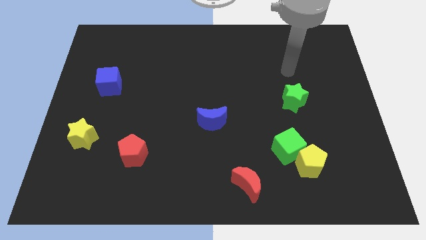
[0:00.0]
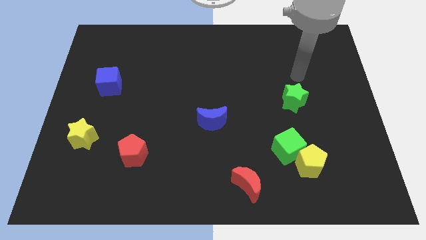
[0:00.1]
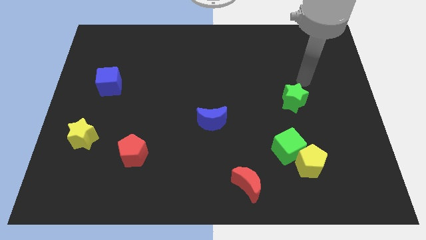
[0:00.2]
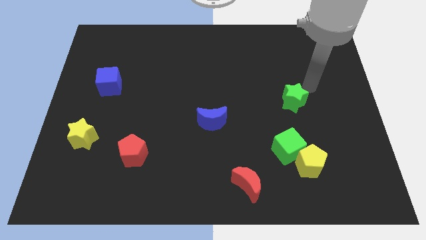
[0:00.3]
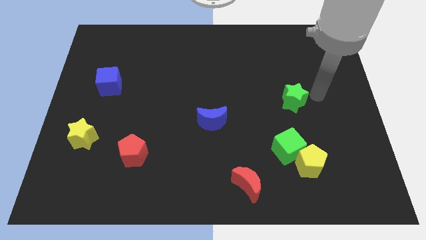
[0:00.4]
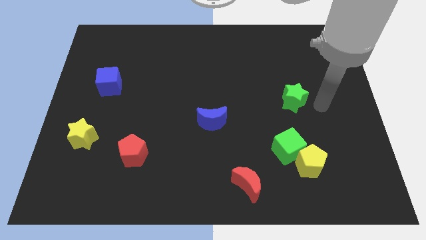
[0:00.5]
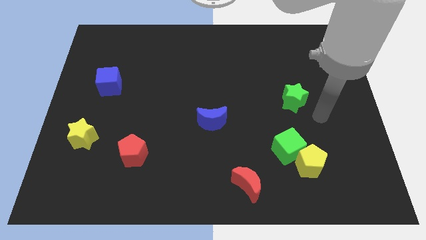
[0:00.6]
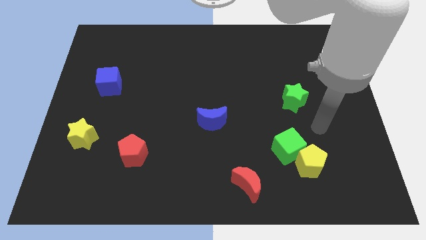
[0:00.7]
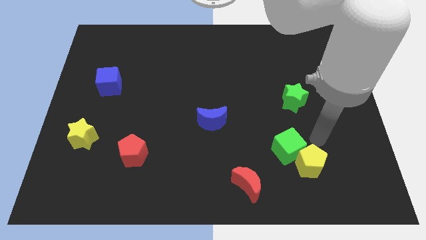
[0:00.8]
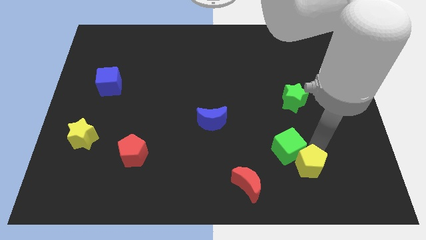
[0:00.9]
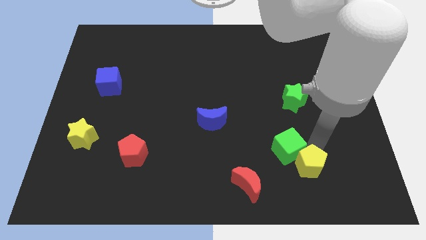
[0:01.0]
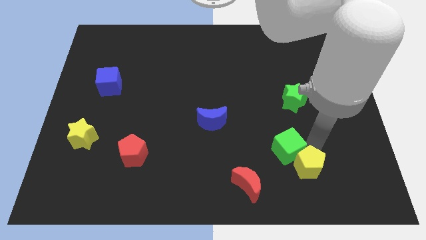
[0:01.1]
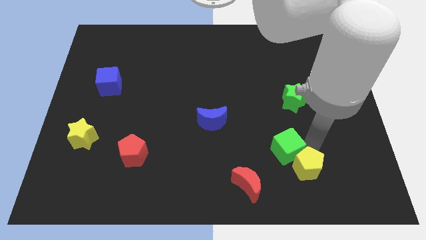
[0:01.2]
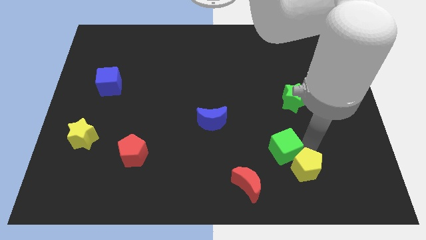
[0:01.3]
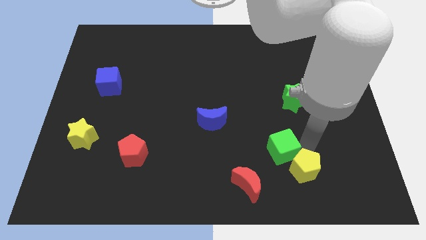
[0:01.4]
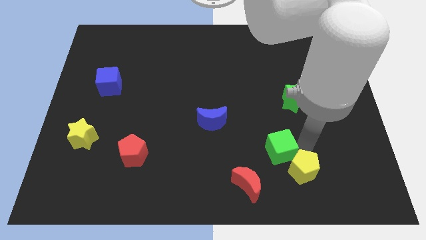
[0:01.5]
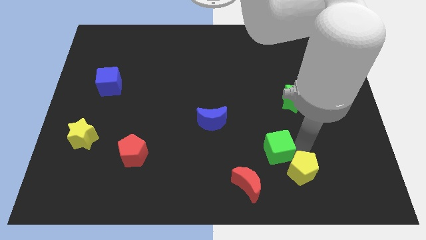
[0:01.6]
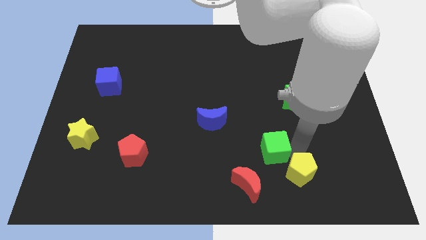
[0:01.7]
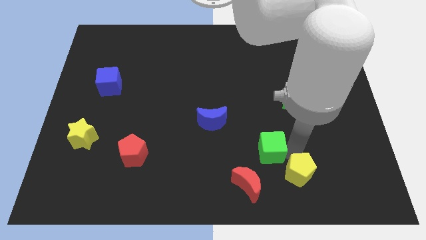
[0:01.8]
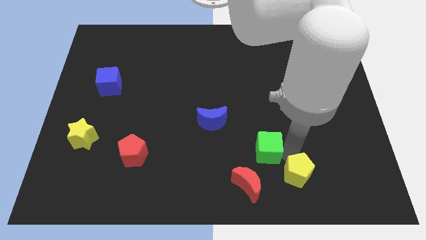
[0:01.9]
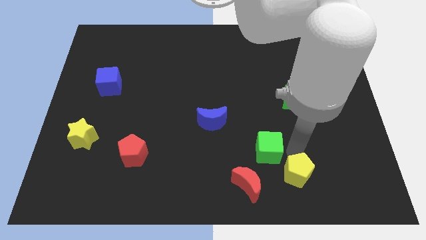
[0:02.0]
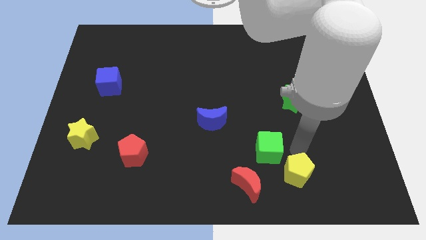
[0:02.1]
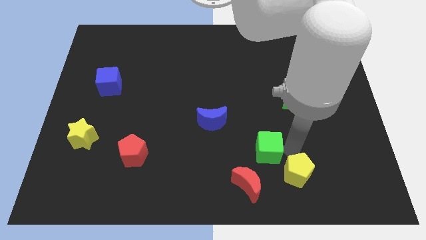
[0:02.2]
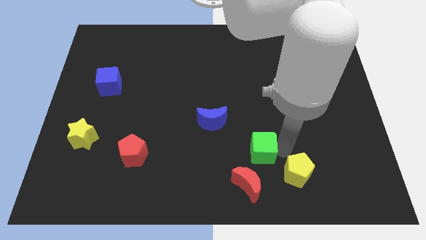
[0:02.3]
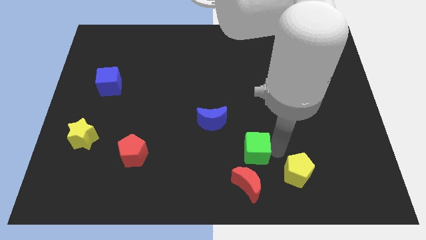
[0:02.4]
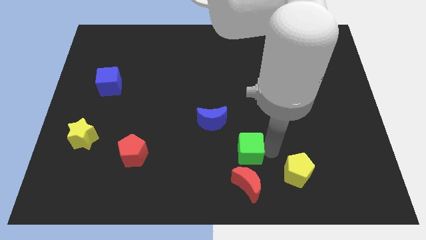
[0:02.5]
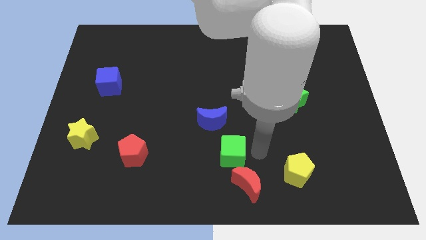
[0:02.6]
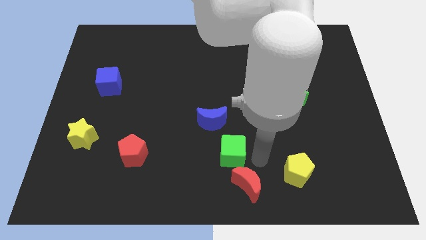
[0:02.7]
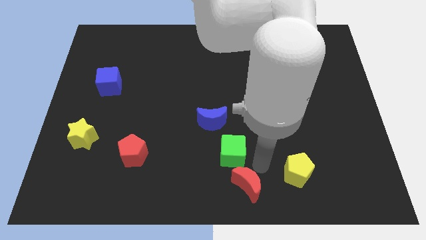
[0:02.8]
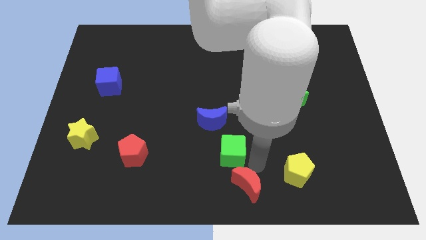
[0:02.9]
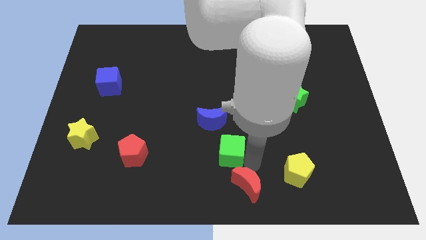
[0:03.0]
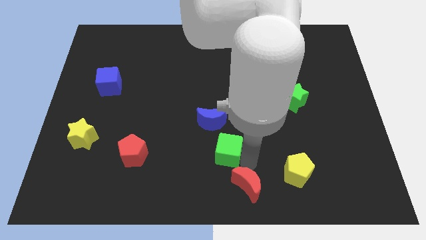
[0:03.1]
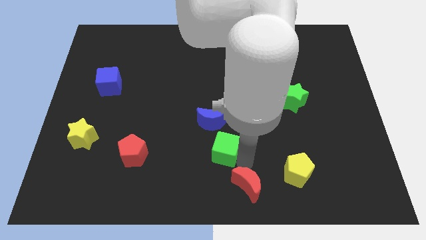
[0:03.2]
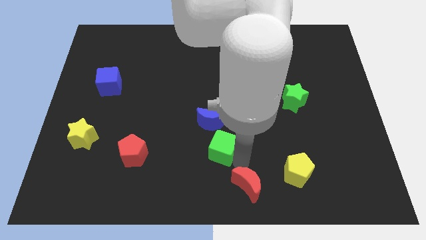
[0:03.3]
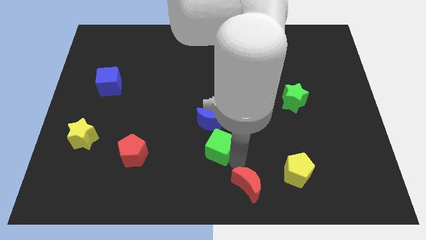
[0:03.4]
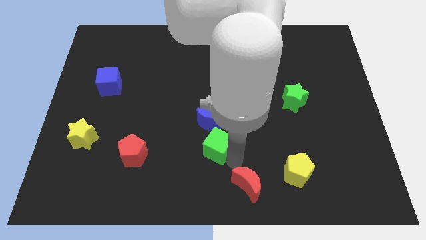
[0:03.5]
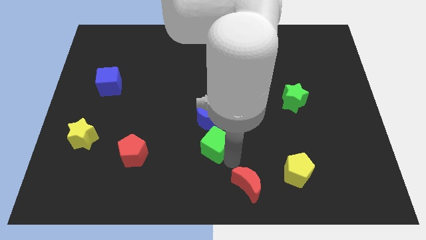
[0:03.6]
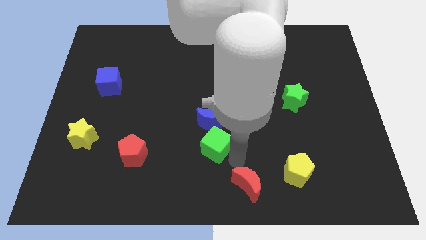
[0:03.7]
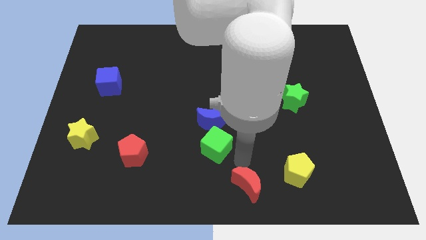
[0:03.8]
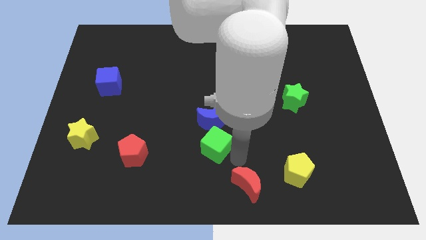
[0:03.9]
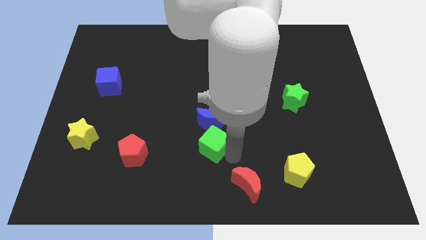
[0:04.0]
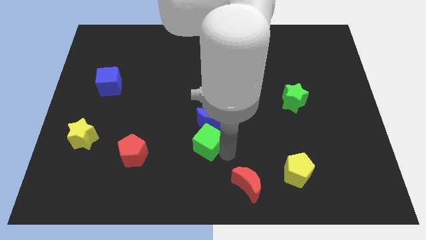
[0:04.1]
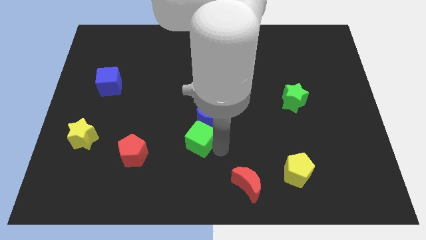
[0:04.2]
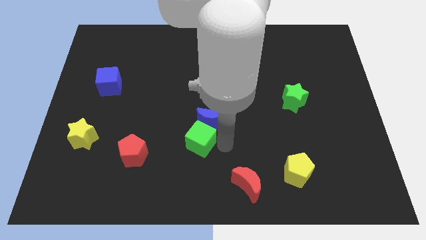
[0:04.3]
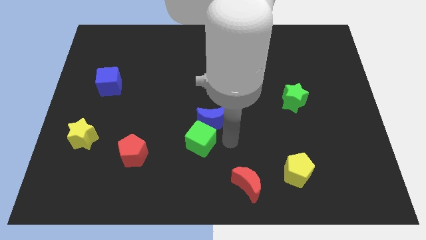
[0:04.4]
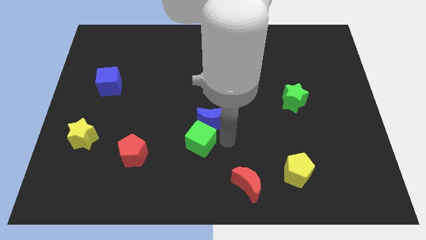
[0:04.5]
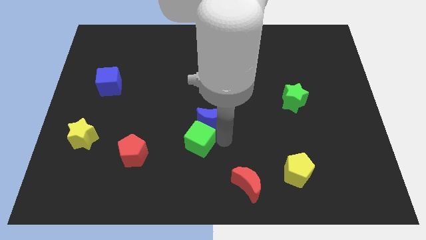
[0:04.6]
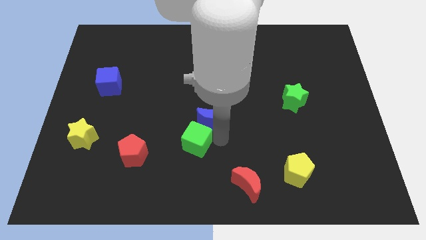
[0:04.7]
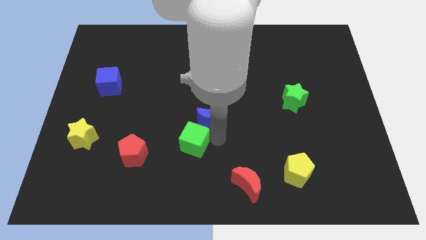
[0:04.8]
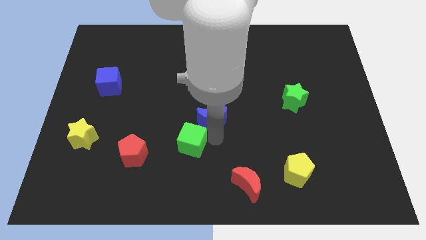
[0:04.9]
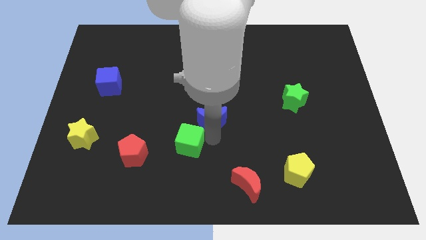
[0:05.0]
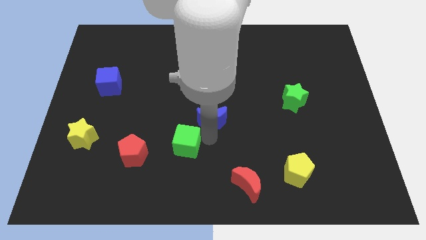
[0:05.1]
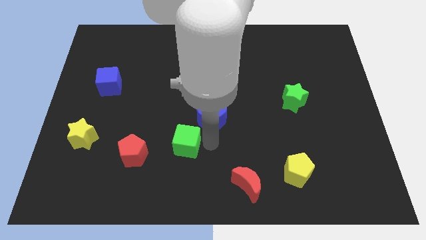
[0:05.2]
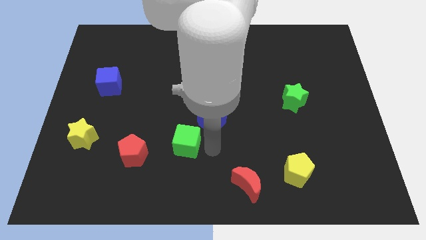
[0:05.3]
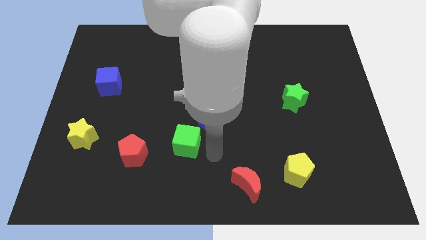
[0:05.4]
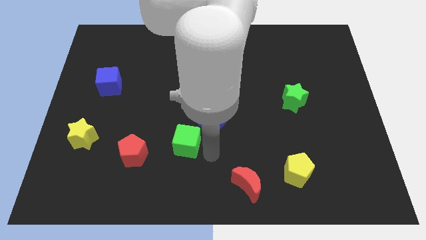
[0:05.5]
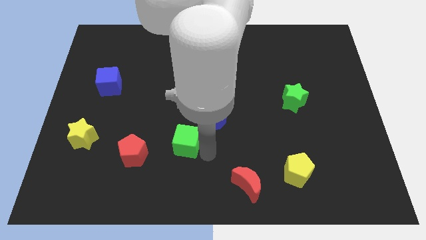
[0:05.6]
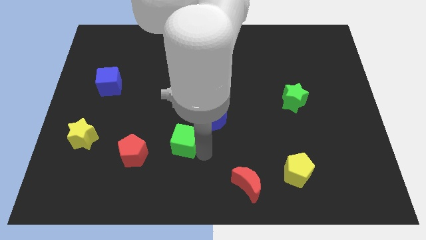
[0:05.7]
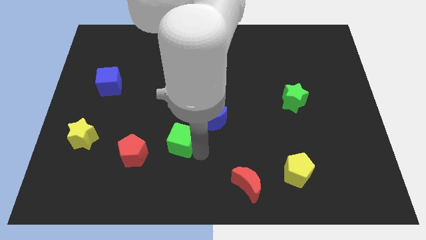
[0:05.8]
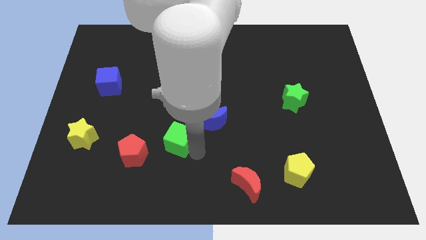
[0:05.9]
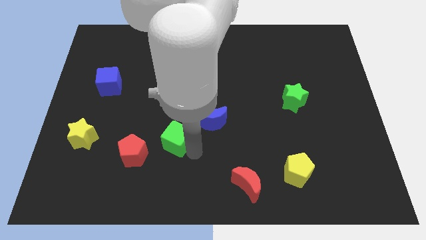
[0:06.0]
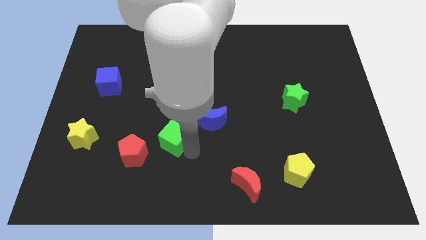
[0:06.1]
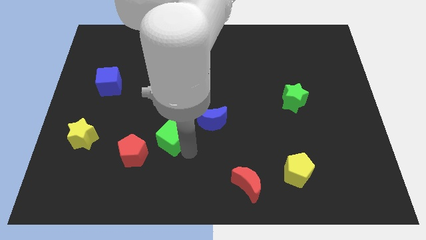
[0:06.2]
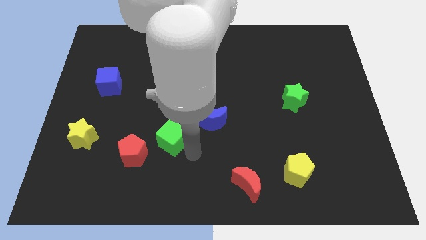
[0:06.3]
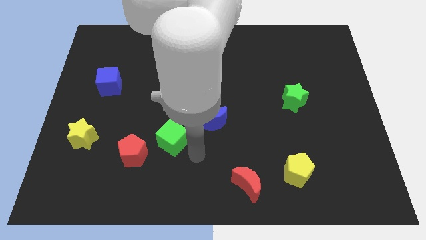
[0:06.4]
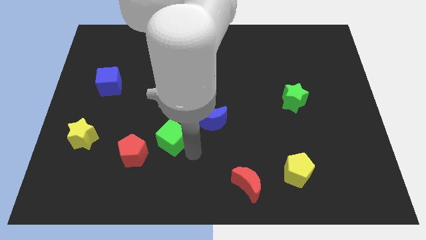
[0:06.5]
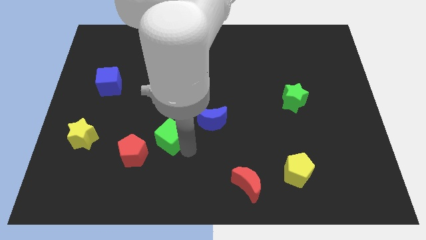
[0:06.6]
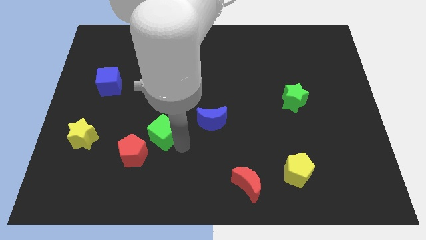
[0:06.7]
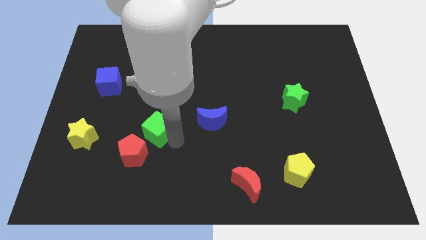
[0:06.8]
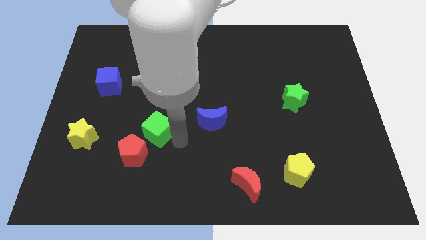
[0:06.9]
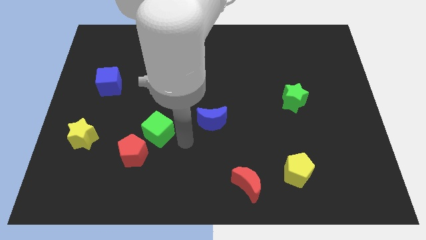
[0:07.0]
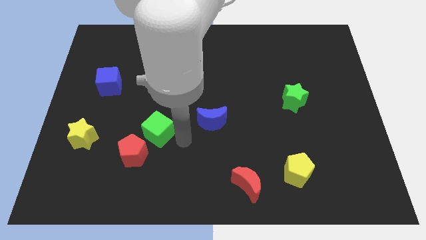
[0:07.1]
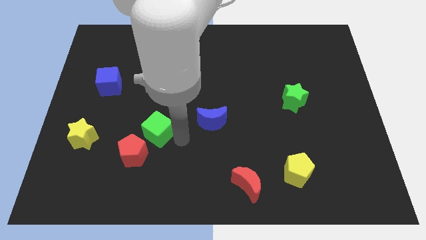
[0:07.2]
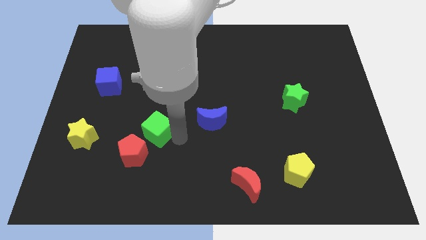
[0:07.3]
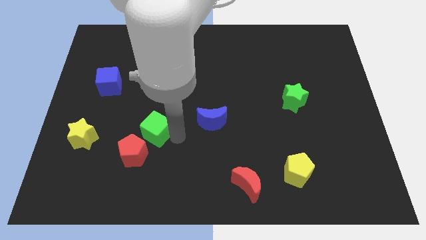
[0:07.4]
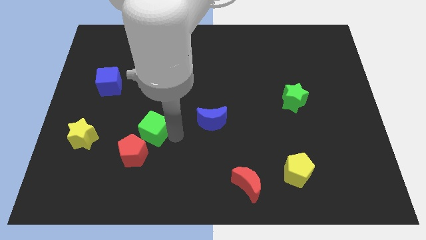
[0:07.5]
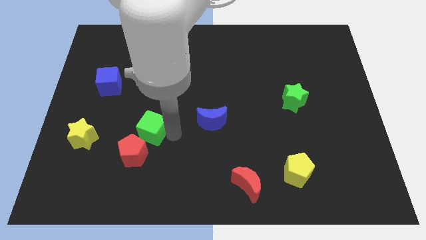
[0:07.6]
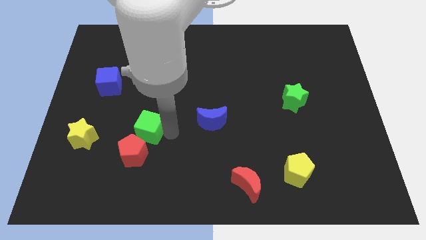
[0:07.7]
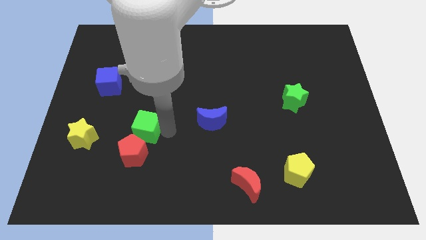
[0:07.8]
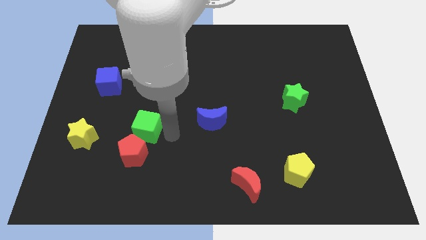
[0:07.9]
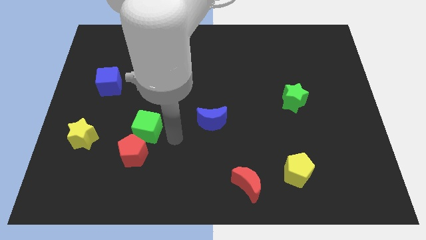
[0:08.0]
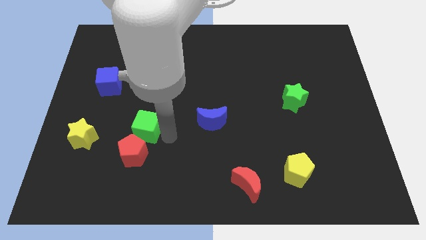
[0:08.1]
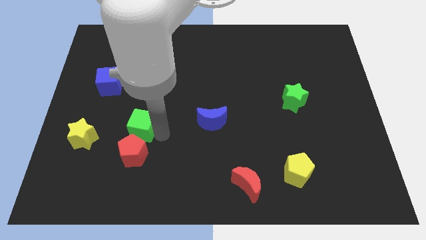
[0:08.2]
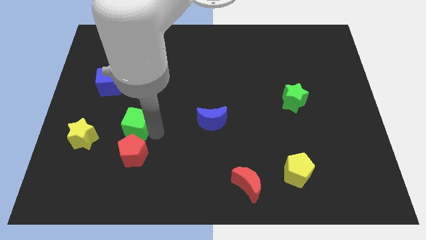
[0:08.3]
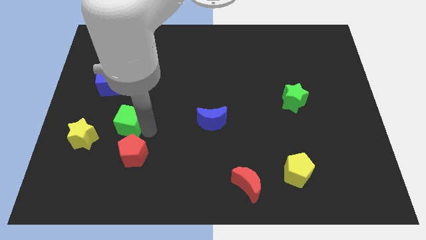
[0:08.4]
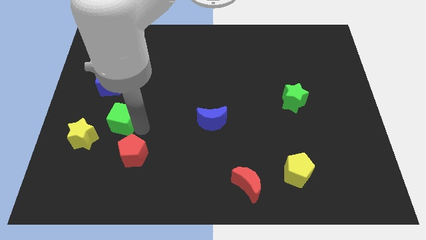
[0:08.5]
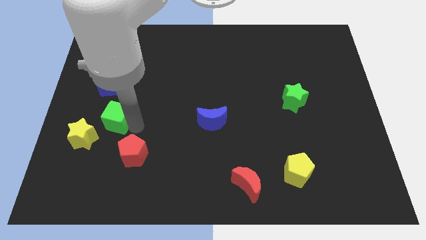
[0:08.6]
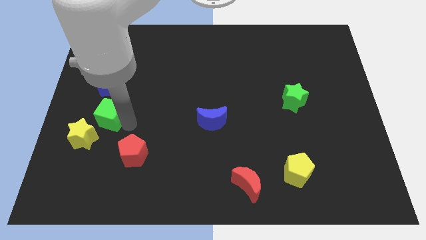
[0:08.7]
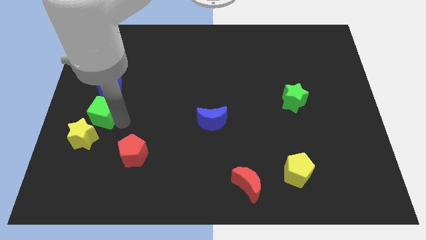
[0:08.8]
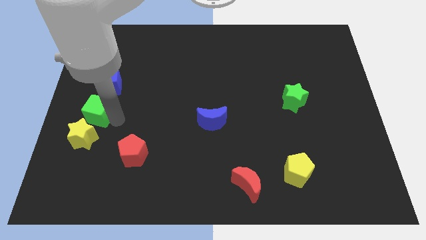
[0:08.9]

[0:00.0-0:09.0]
move the green cube to the left side
